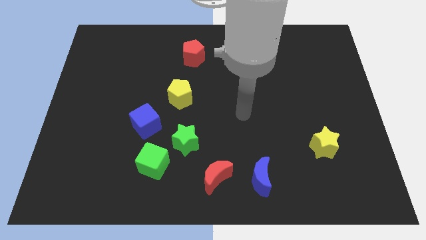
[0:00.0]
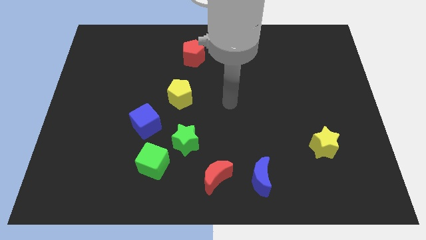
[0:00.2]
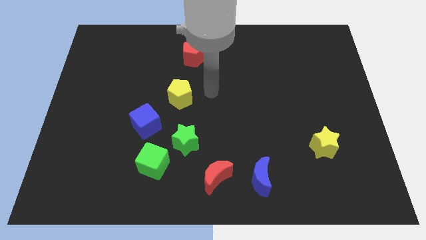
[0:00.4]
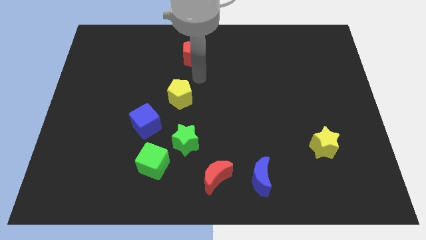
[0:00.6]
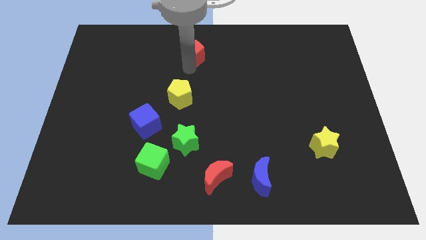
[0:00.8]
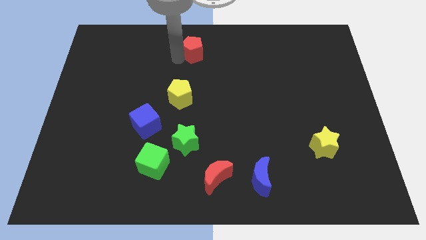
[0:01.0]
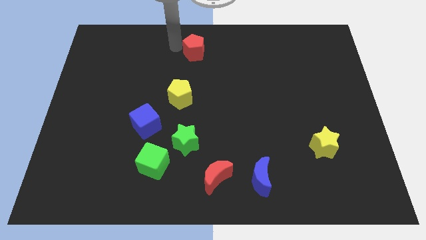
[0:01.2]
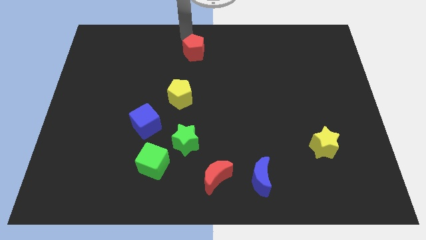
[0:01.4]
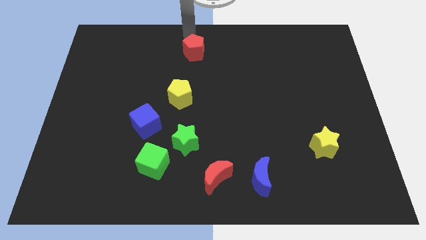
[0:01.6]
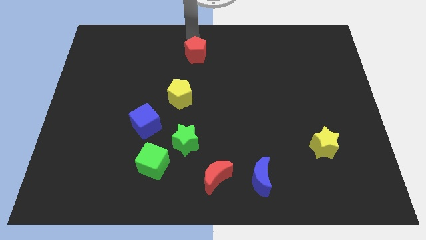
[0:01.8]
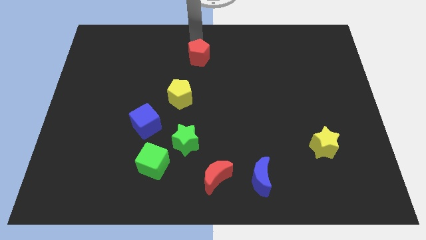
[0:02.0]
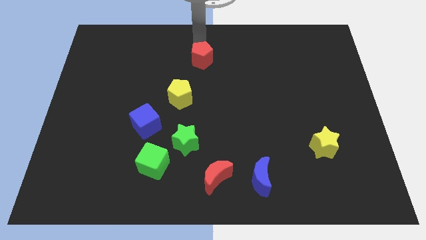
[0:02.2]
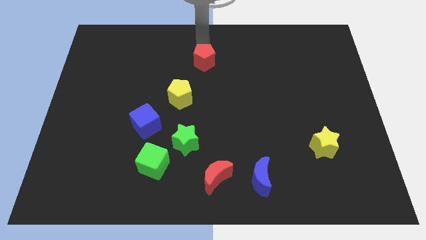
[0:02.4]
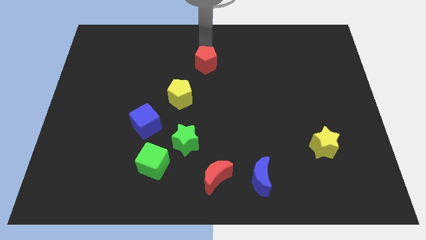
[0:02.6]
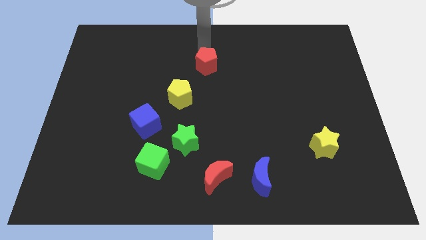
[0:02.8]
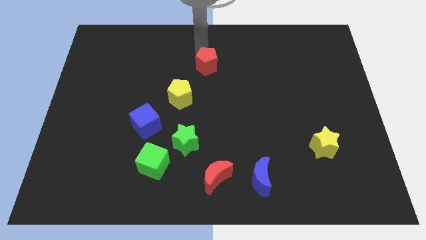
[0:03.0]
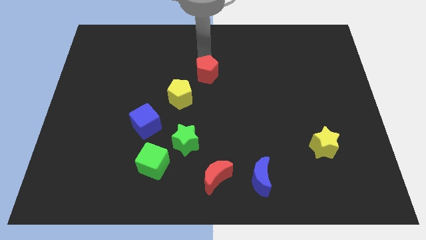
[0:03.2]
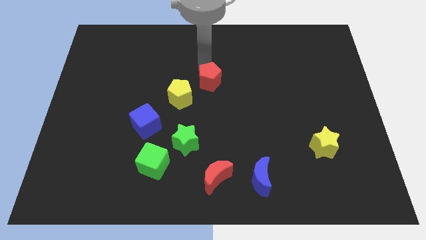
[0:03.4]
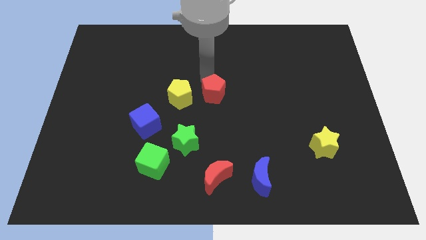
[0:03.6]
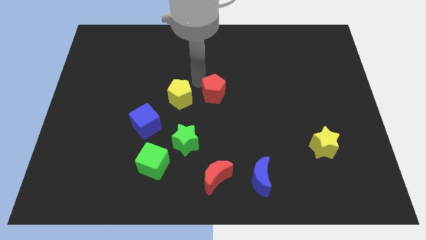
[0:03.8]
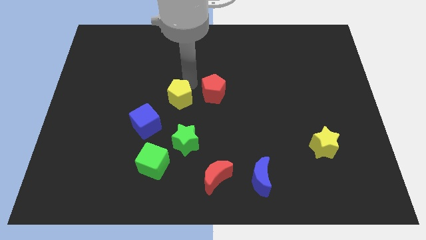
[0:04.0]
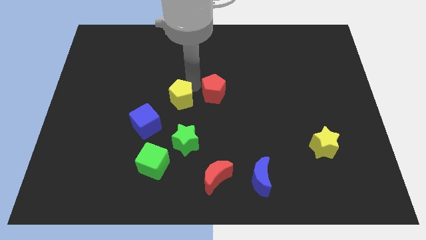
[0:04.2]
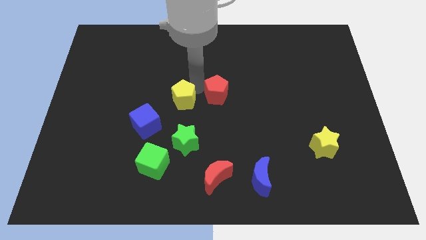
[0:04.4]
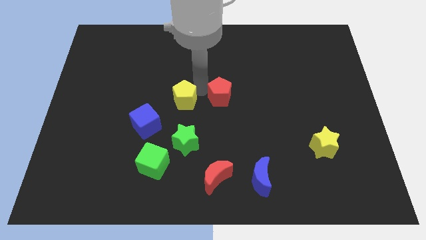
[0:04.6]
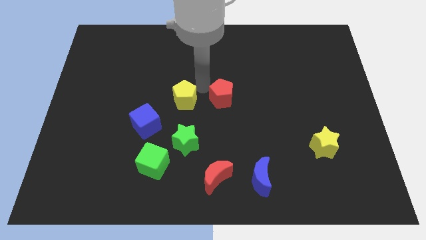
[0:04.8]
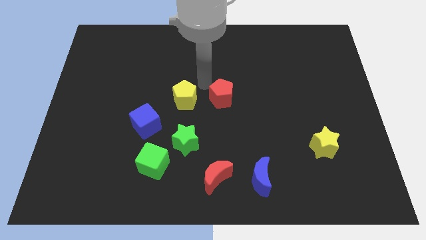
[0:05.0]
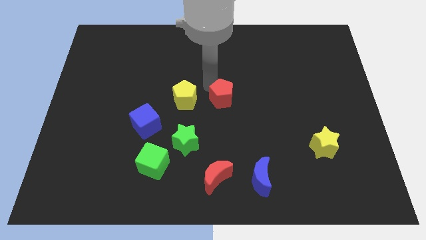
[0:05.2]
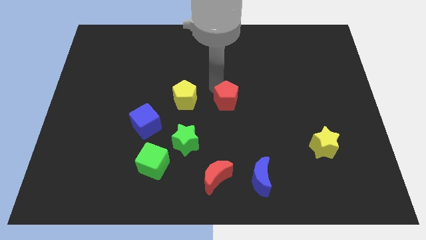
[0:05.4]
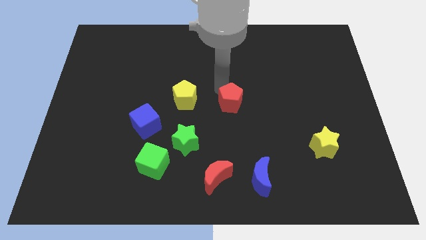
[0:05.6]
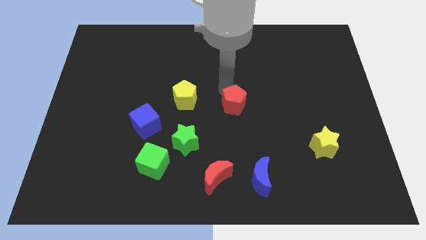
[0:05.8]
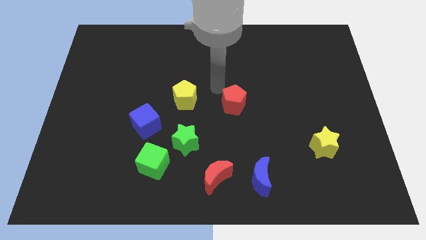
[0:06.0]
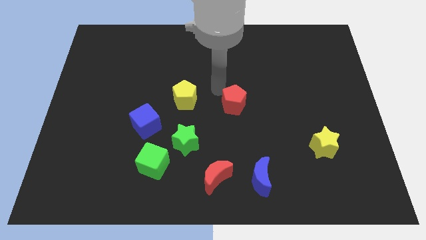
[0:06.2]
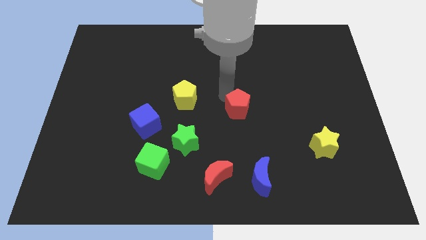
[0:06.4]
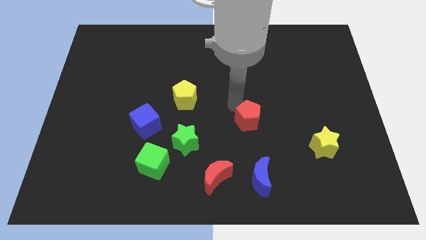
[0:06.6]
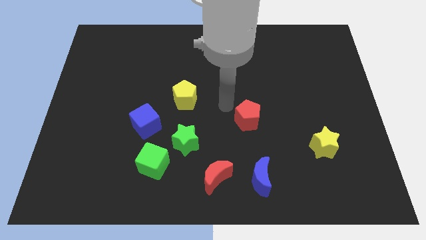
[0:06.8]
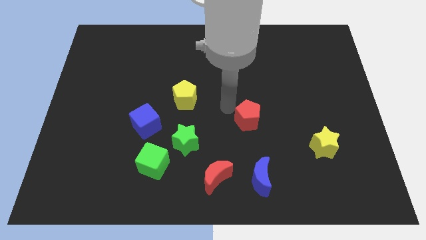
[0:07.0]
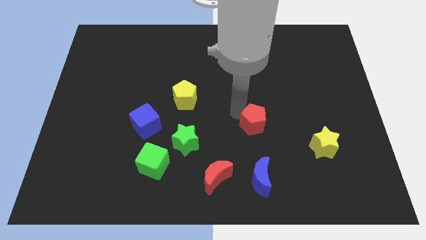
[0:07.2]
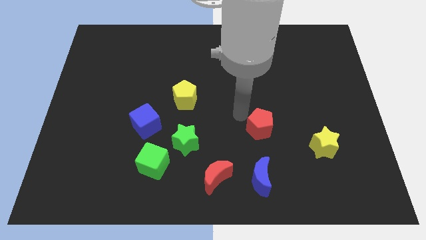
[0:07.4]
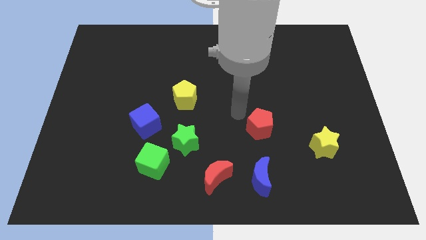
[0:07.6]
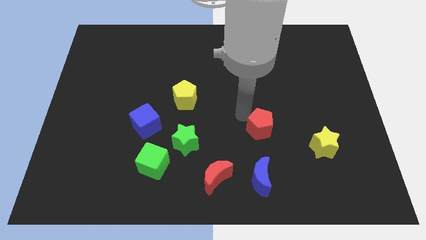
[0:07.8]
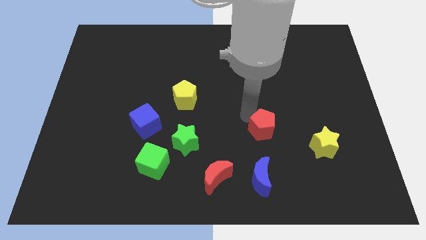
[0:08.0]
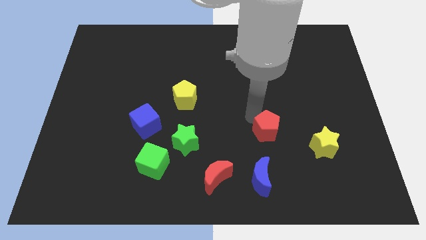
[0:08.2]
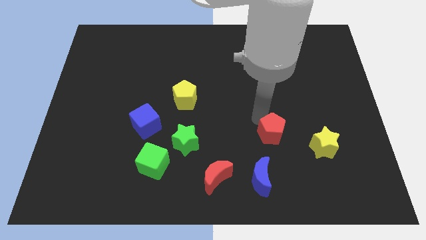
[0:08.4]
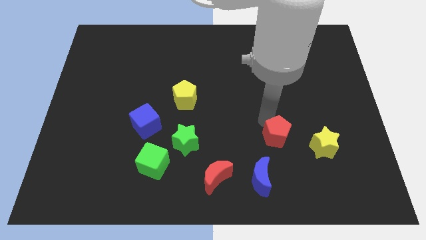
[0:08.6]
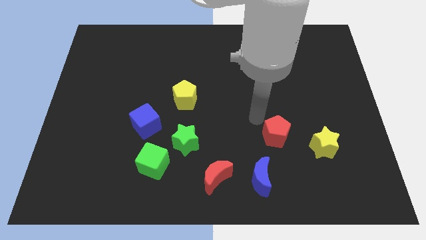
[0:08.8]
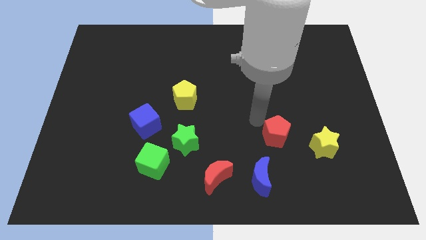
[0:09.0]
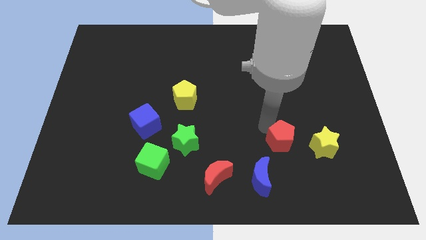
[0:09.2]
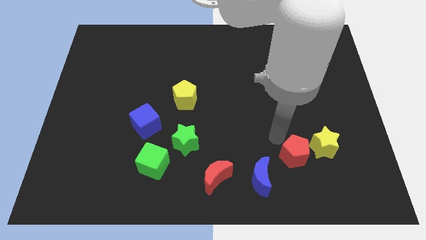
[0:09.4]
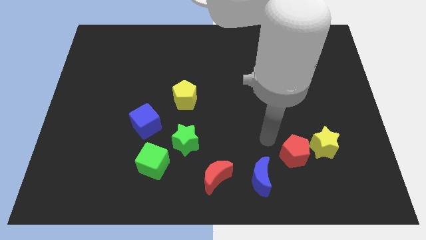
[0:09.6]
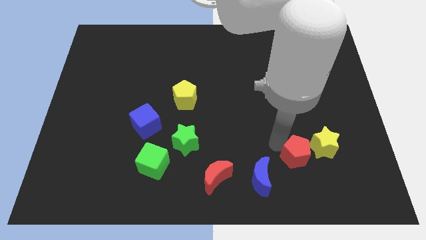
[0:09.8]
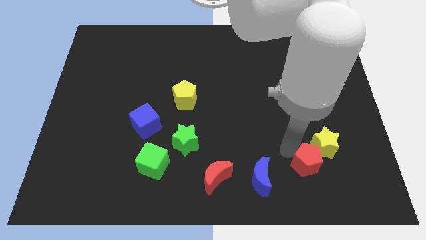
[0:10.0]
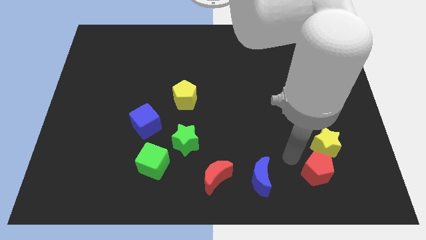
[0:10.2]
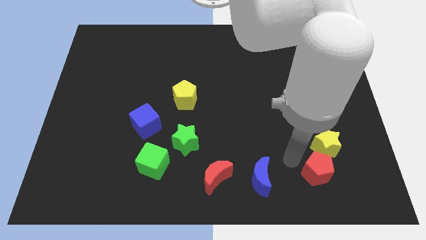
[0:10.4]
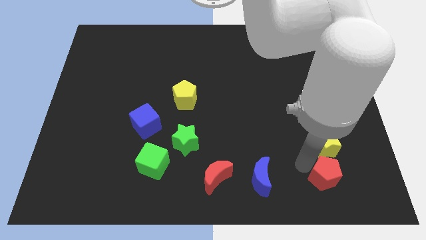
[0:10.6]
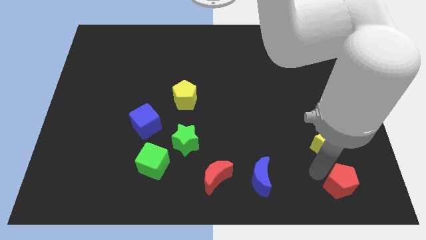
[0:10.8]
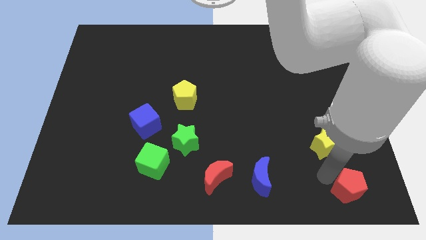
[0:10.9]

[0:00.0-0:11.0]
move the red pentagon to the bottom right corner

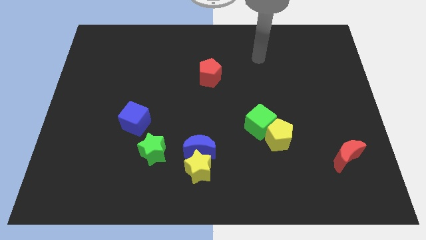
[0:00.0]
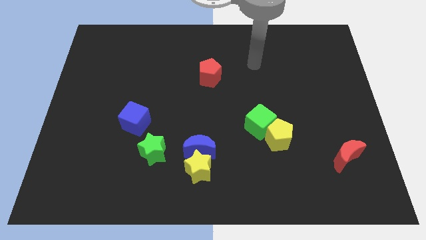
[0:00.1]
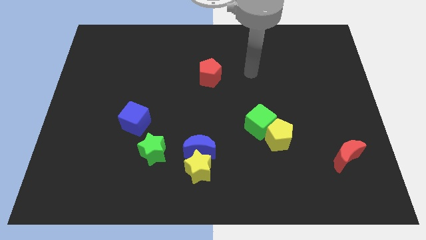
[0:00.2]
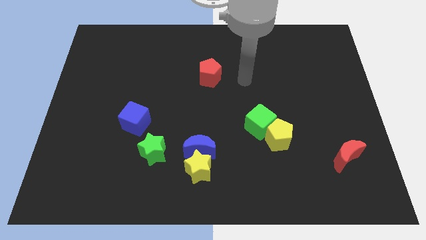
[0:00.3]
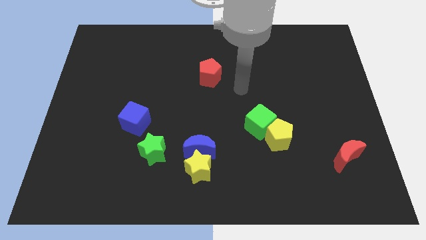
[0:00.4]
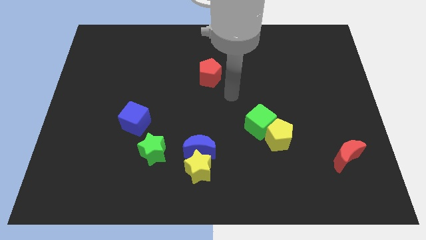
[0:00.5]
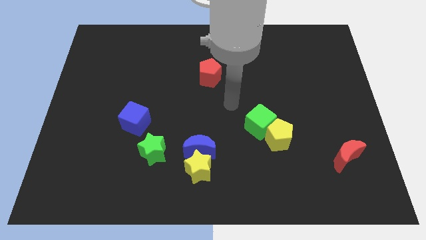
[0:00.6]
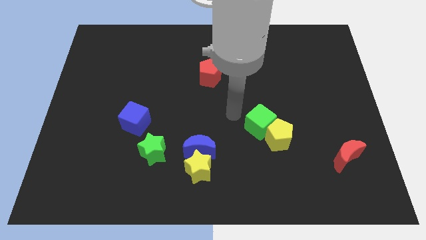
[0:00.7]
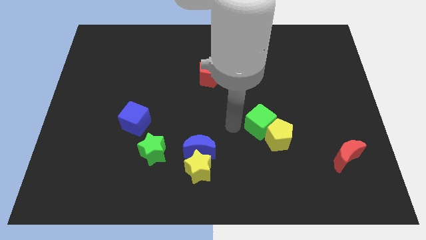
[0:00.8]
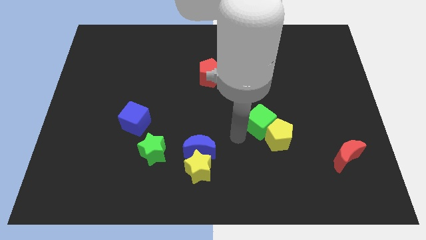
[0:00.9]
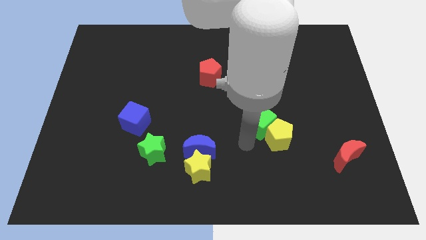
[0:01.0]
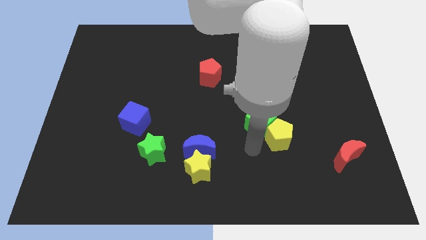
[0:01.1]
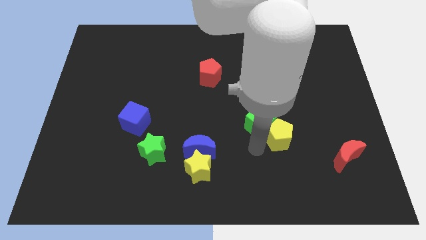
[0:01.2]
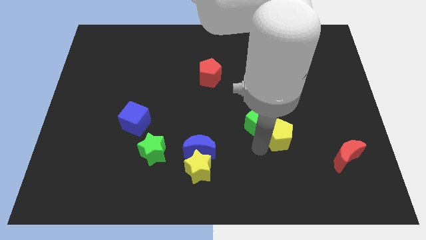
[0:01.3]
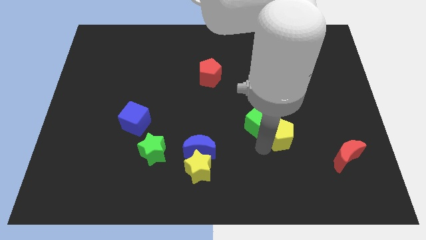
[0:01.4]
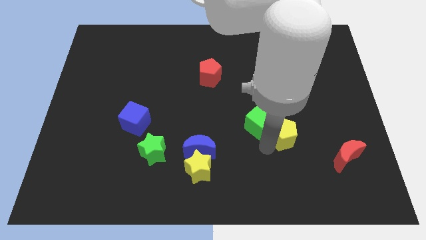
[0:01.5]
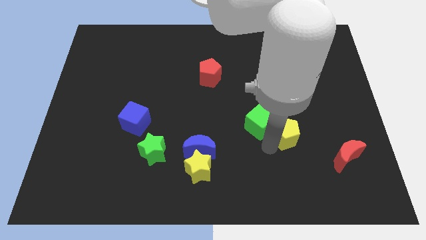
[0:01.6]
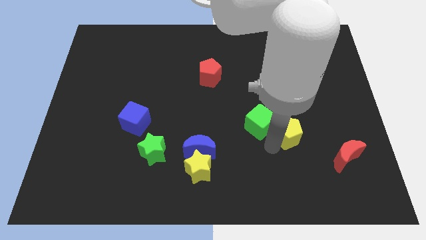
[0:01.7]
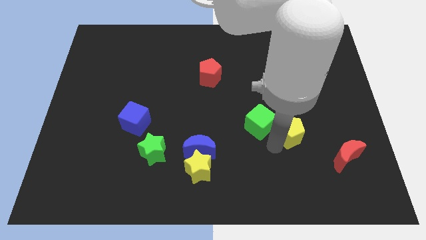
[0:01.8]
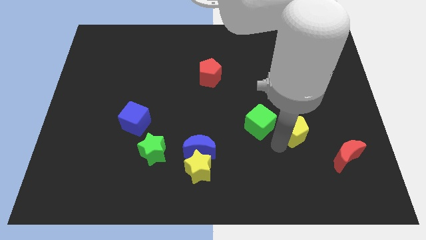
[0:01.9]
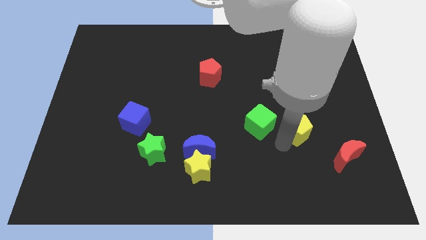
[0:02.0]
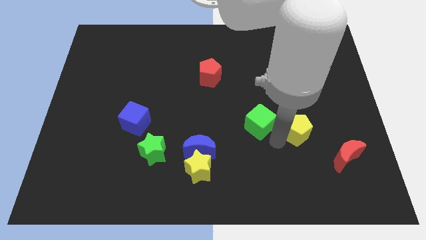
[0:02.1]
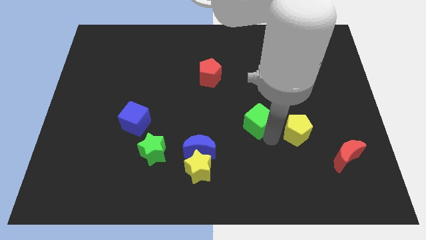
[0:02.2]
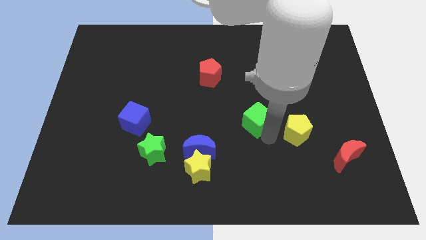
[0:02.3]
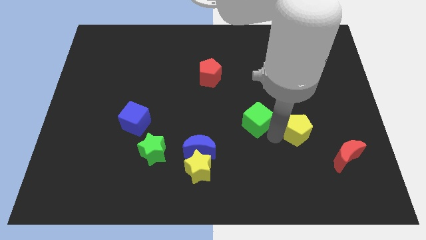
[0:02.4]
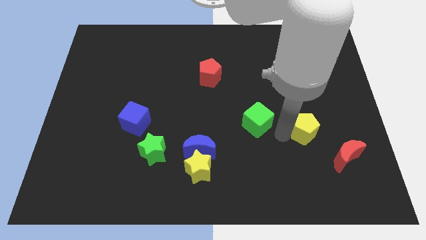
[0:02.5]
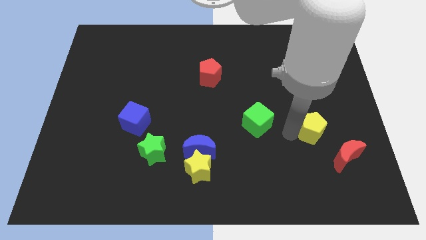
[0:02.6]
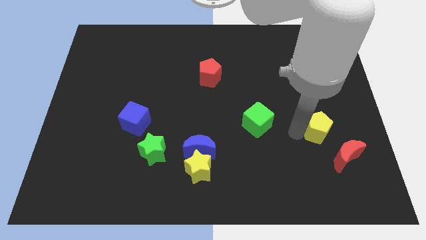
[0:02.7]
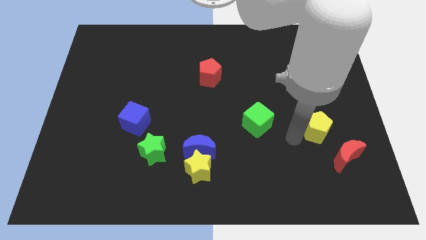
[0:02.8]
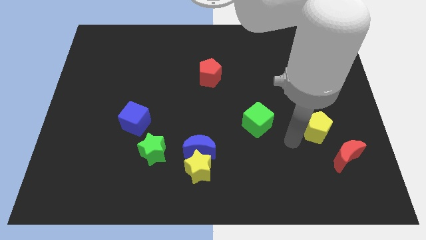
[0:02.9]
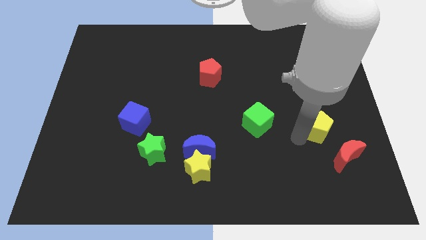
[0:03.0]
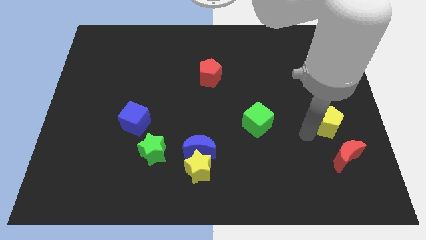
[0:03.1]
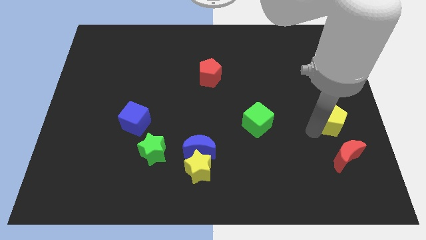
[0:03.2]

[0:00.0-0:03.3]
push the yellow pentagon to the right side of the board
